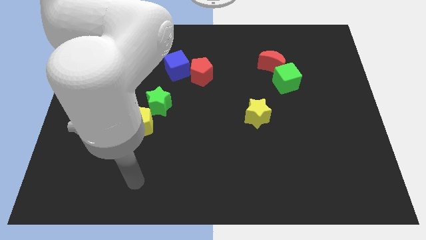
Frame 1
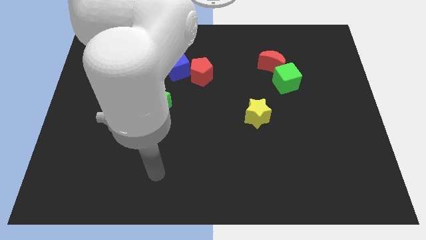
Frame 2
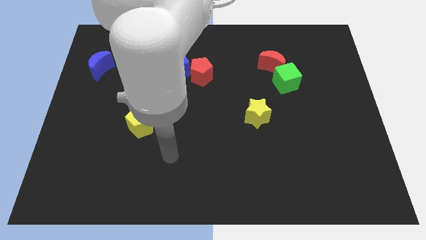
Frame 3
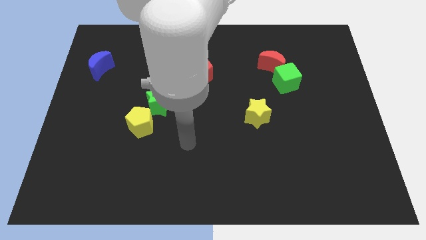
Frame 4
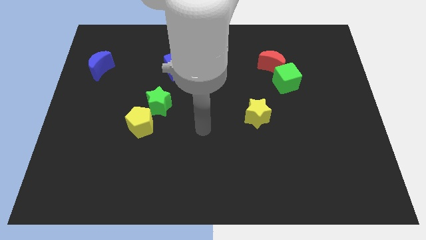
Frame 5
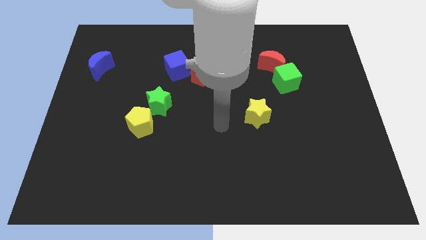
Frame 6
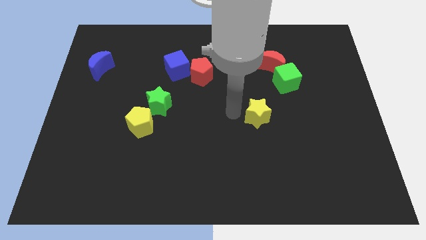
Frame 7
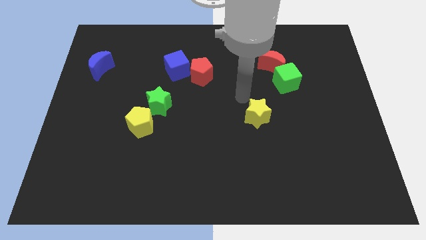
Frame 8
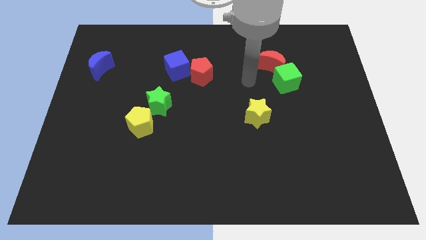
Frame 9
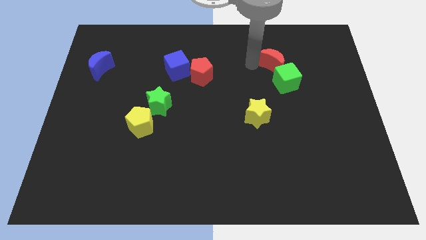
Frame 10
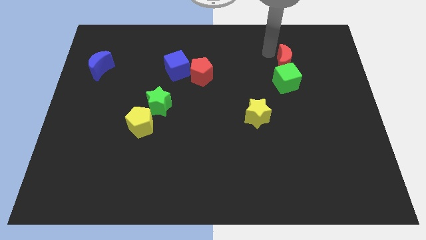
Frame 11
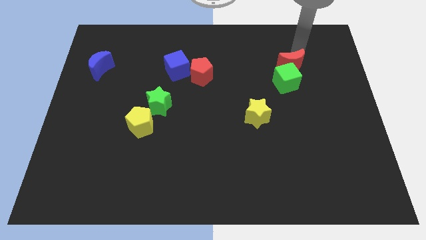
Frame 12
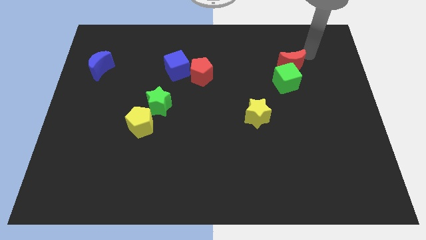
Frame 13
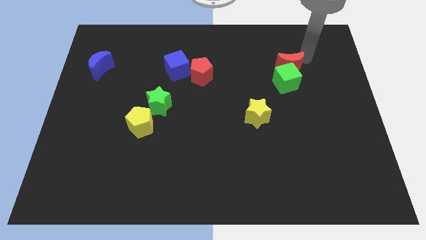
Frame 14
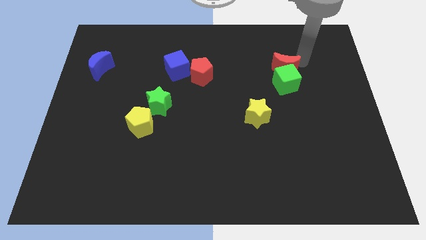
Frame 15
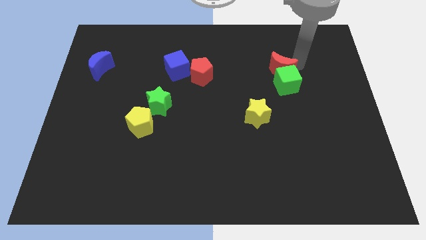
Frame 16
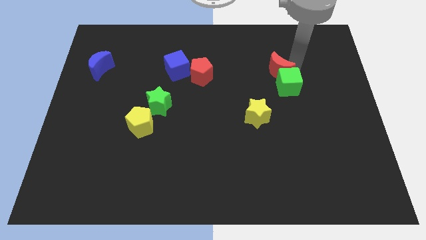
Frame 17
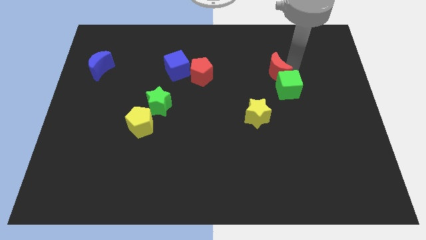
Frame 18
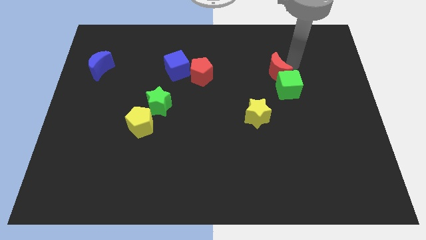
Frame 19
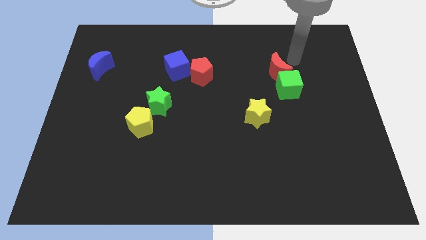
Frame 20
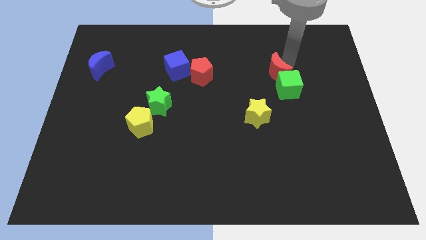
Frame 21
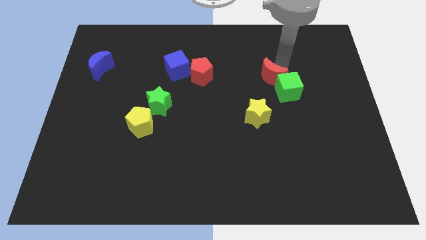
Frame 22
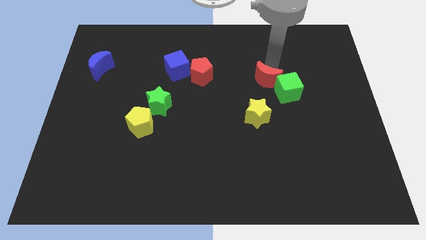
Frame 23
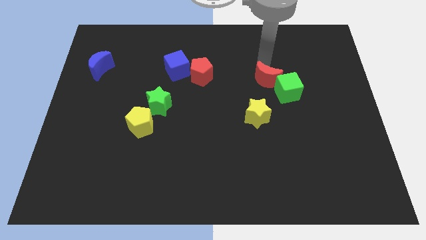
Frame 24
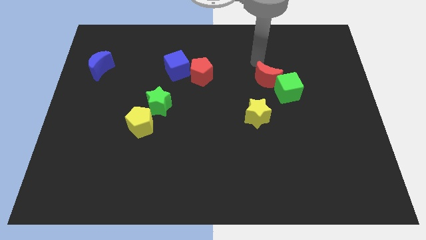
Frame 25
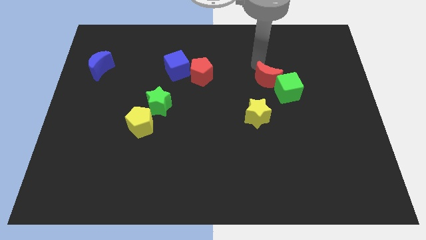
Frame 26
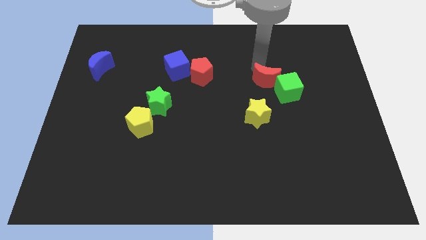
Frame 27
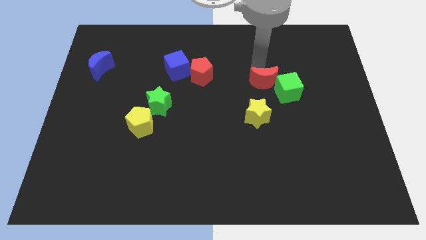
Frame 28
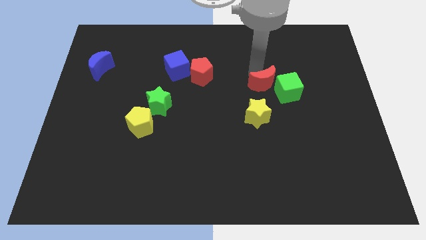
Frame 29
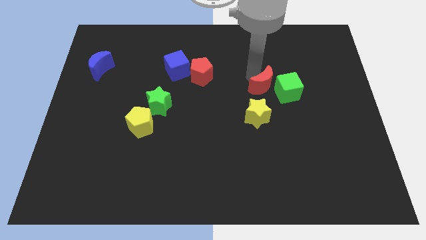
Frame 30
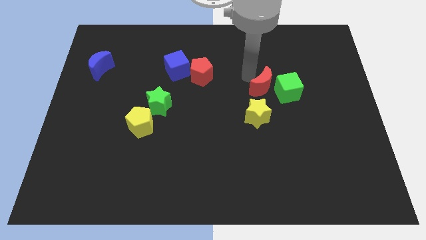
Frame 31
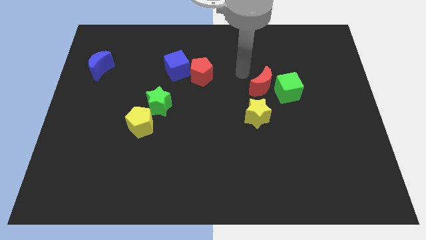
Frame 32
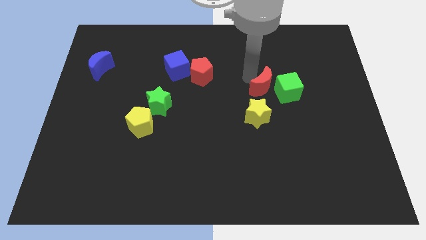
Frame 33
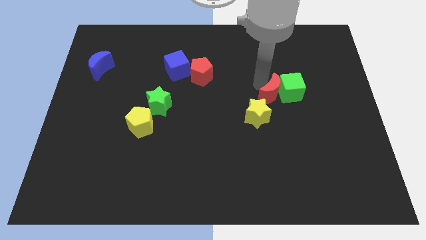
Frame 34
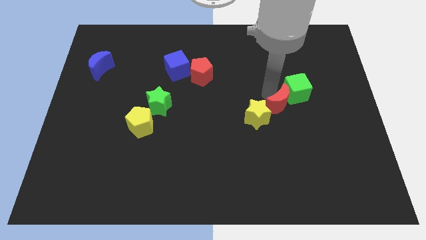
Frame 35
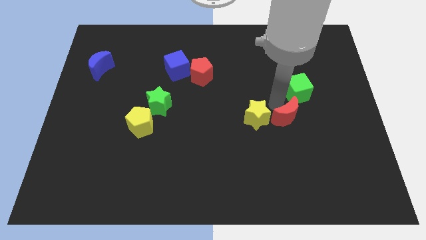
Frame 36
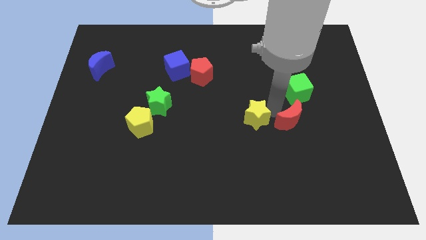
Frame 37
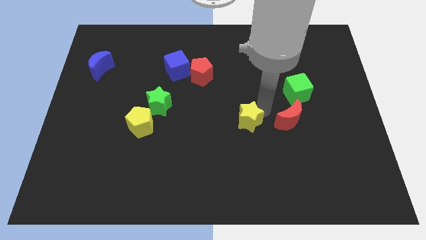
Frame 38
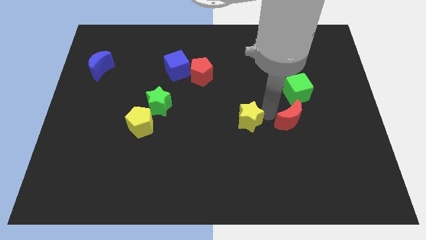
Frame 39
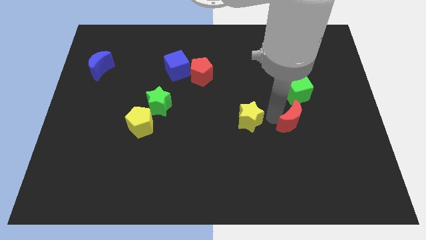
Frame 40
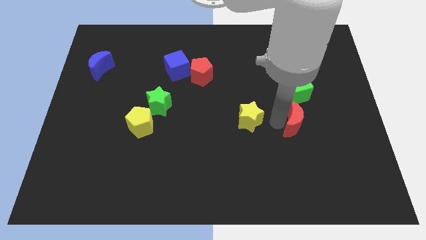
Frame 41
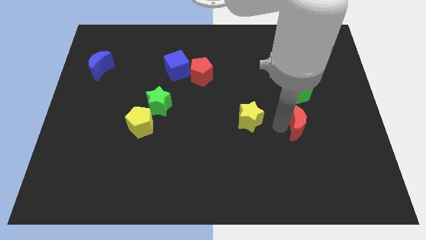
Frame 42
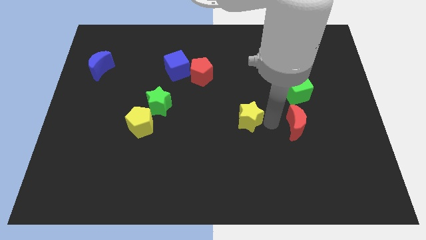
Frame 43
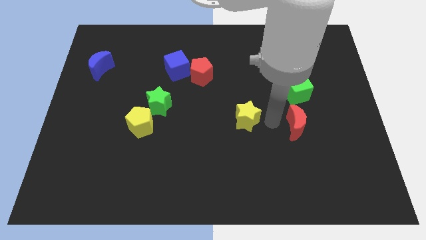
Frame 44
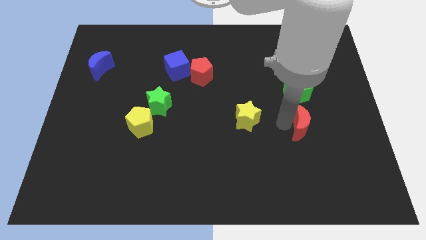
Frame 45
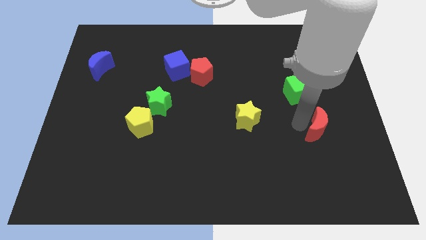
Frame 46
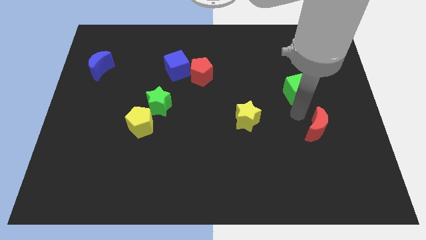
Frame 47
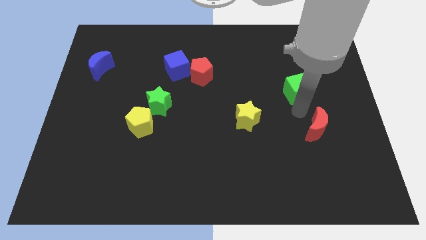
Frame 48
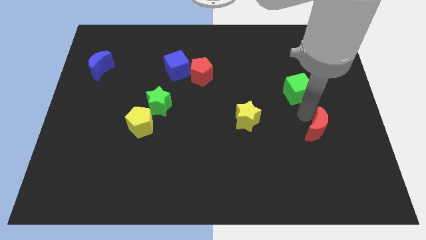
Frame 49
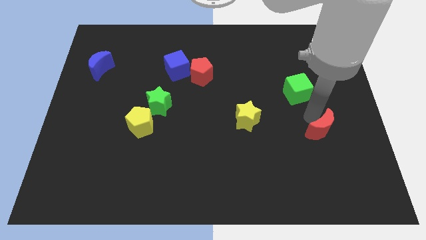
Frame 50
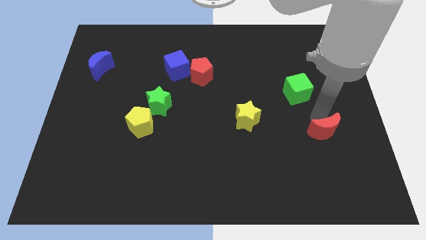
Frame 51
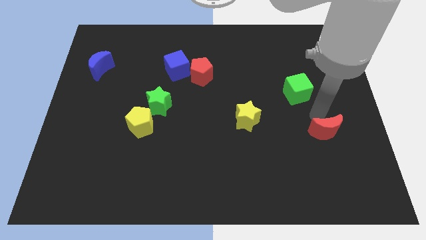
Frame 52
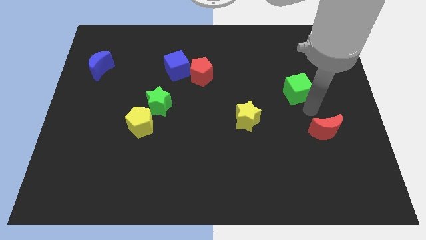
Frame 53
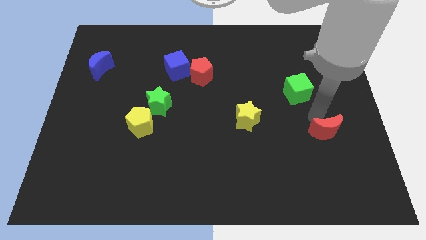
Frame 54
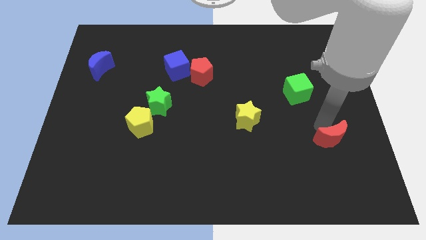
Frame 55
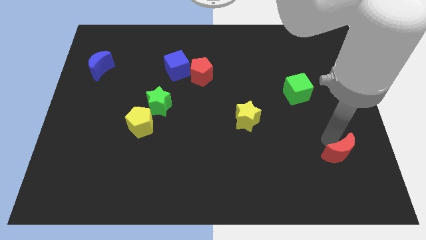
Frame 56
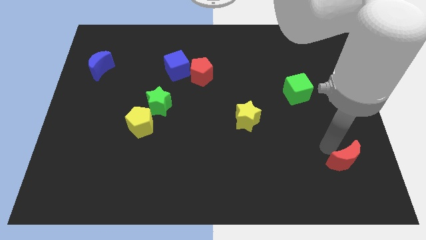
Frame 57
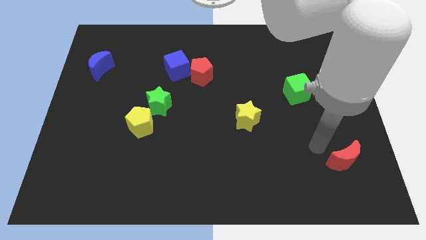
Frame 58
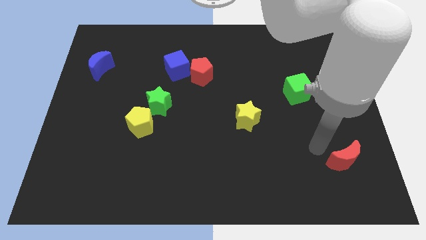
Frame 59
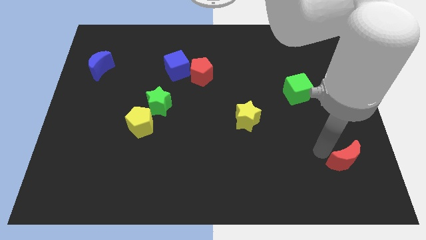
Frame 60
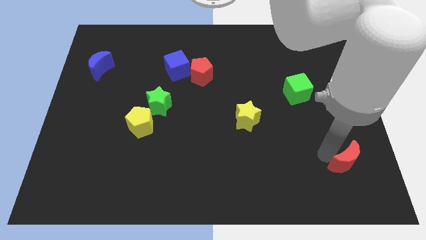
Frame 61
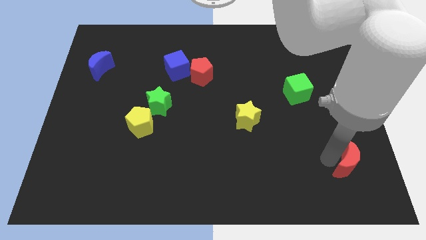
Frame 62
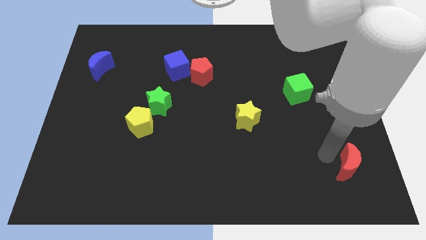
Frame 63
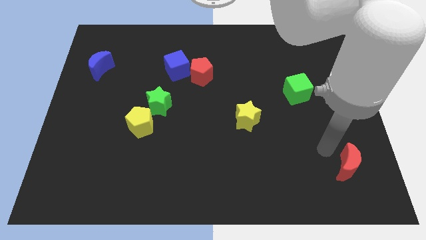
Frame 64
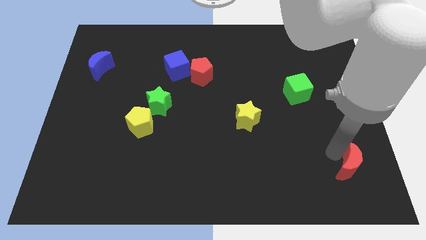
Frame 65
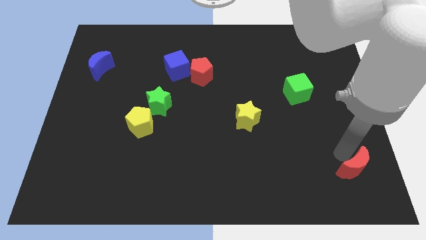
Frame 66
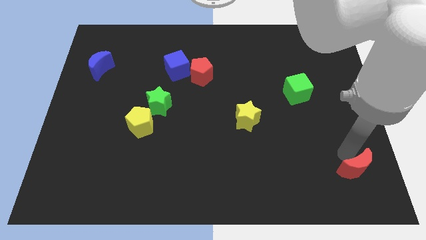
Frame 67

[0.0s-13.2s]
move the red moon to the bottom right of the board

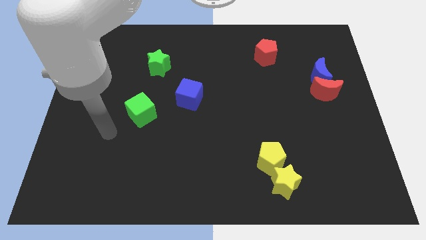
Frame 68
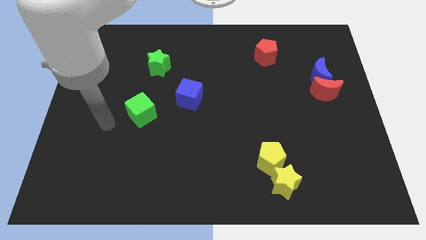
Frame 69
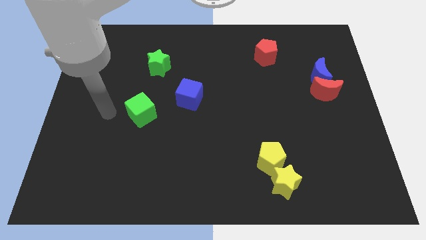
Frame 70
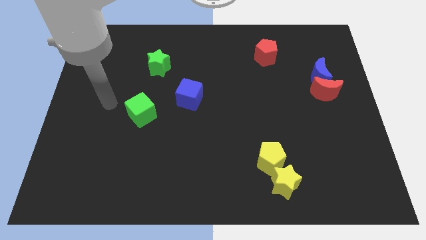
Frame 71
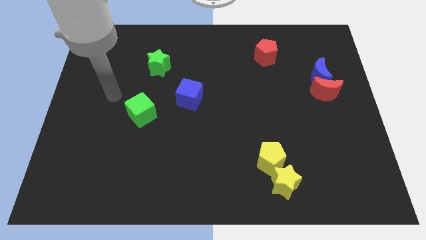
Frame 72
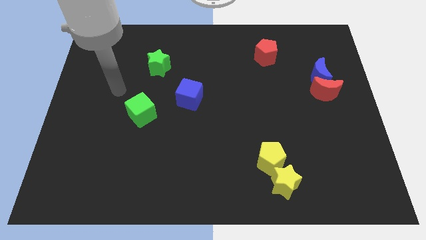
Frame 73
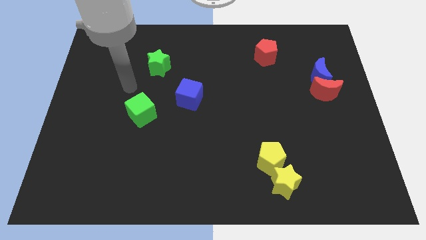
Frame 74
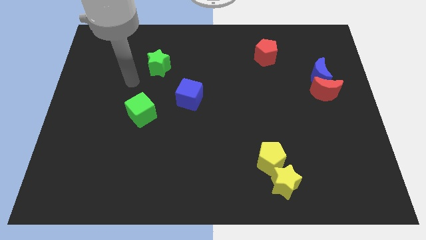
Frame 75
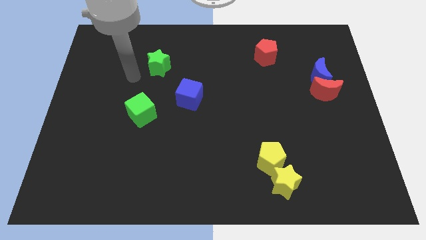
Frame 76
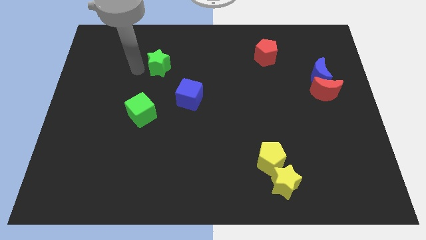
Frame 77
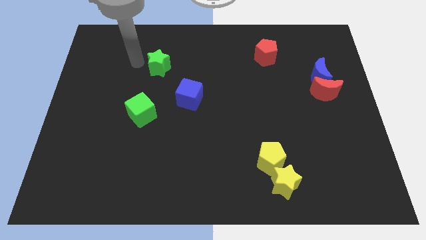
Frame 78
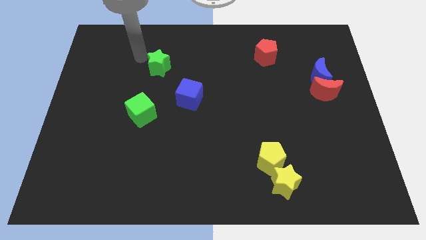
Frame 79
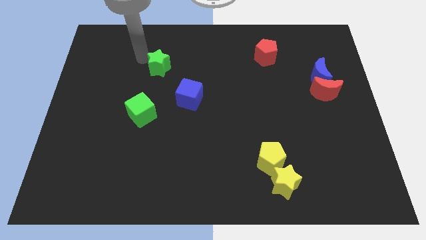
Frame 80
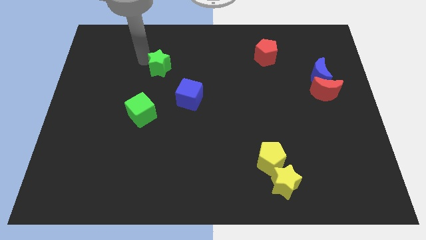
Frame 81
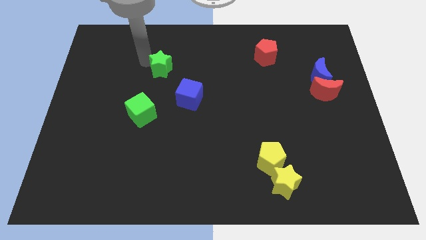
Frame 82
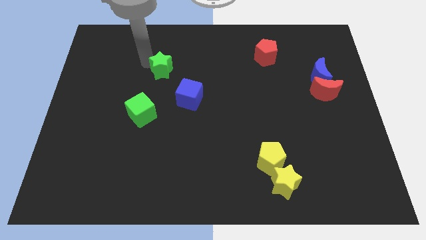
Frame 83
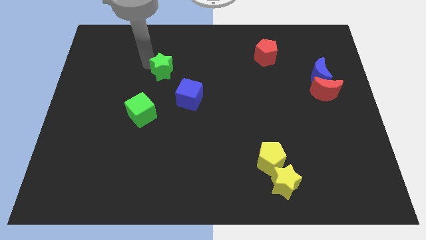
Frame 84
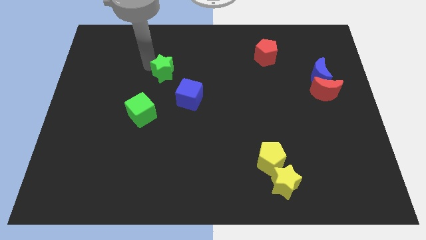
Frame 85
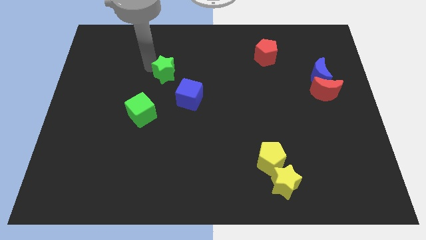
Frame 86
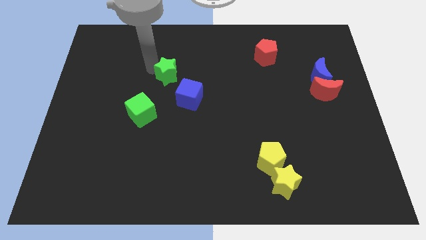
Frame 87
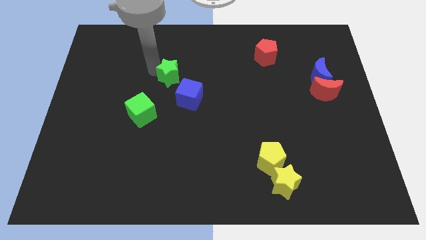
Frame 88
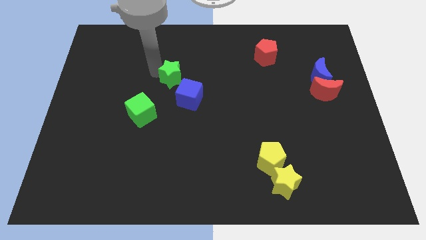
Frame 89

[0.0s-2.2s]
slide the green star to the center
